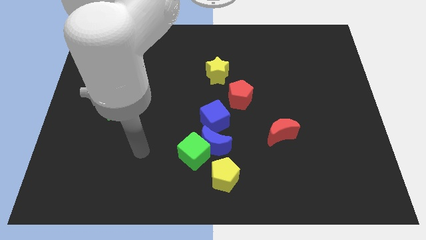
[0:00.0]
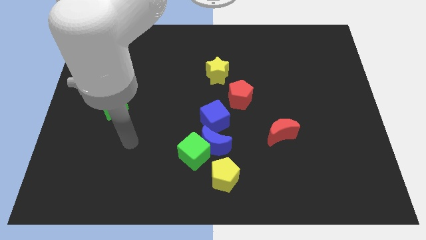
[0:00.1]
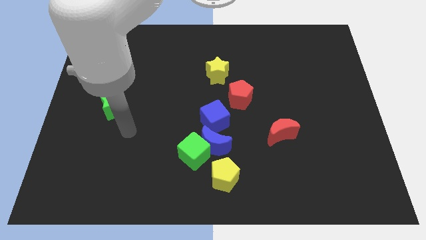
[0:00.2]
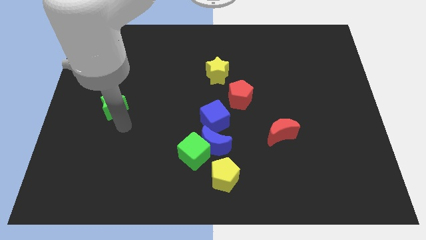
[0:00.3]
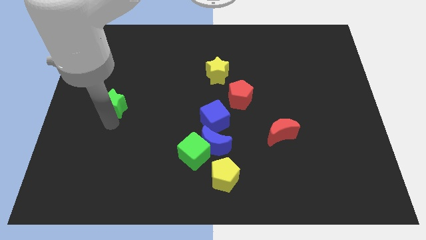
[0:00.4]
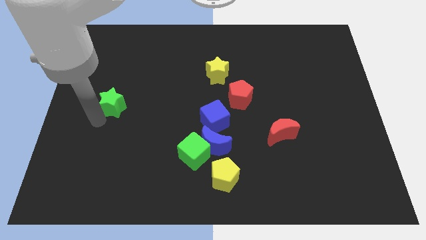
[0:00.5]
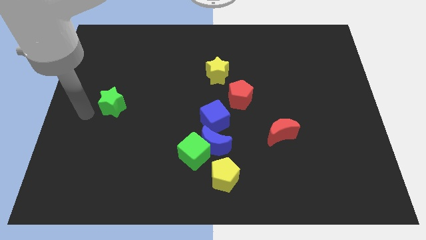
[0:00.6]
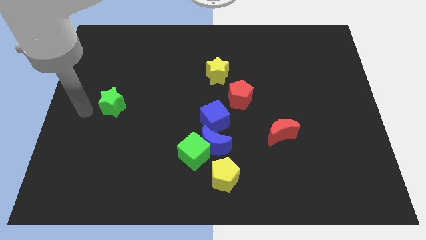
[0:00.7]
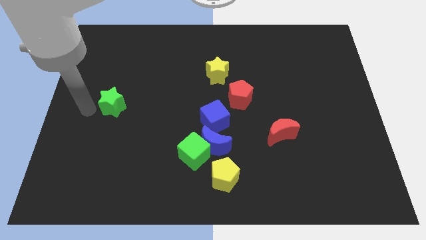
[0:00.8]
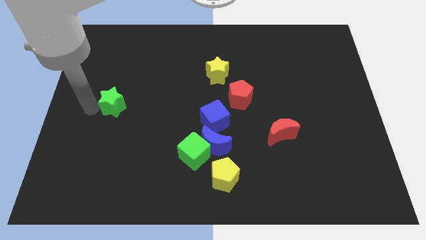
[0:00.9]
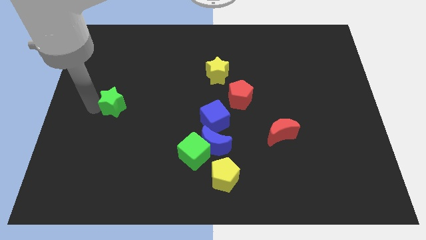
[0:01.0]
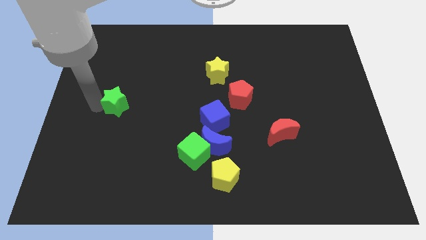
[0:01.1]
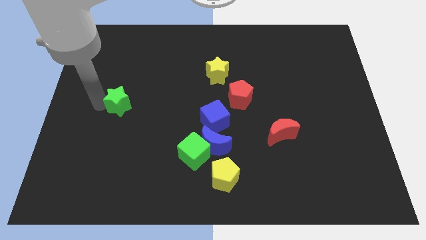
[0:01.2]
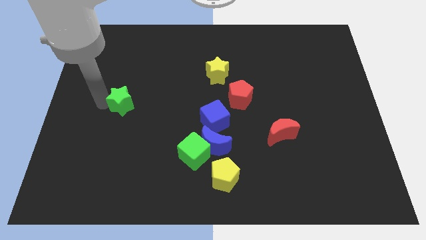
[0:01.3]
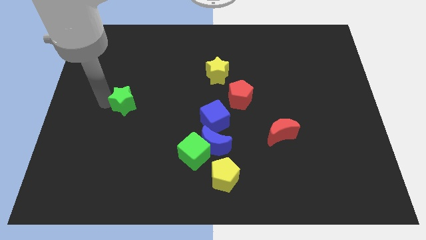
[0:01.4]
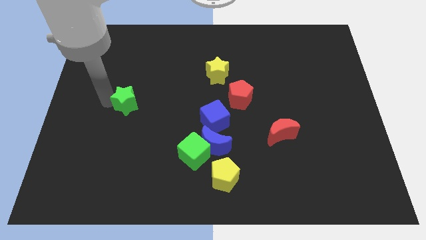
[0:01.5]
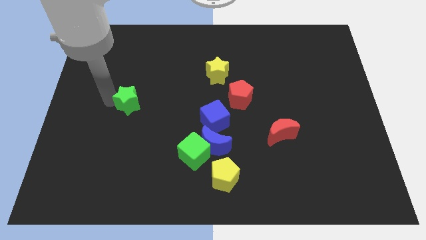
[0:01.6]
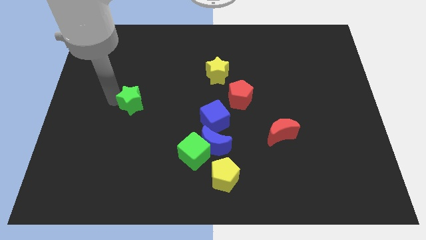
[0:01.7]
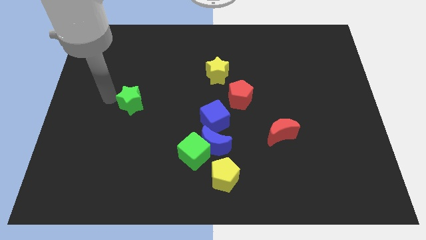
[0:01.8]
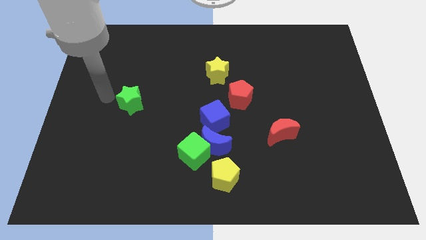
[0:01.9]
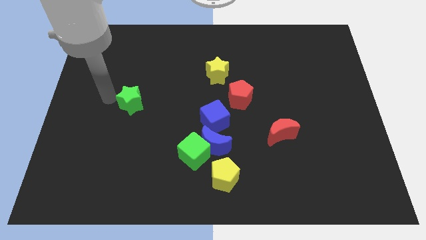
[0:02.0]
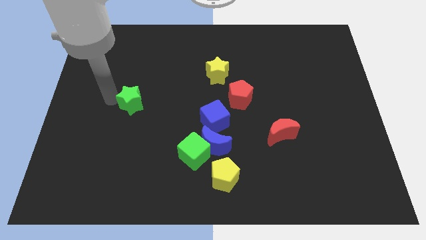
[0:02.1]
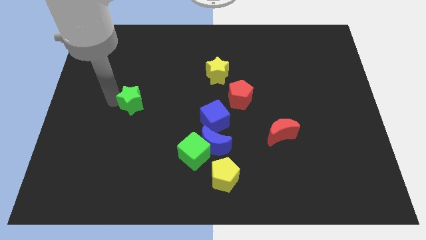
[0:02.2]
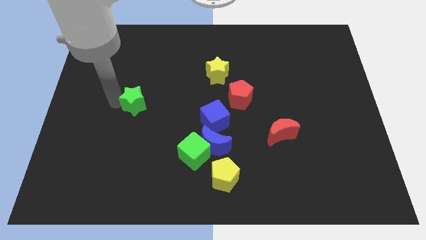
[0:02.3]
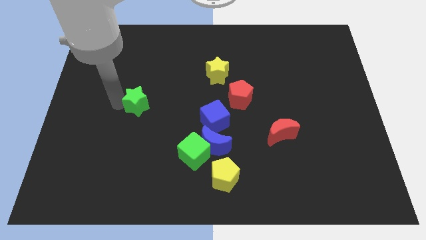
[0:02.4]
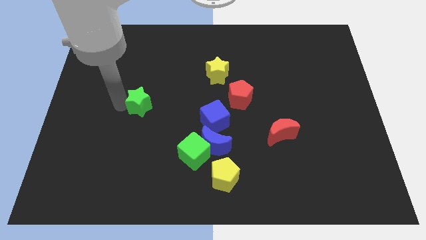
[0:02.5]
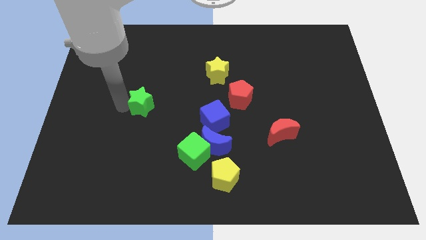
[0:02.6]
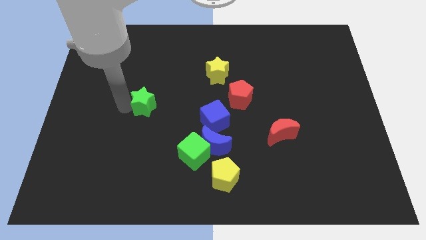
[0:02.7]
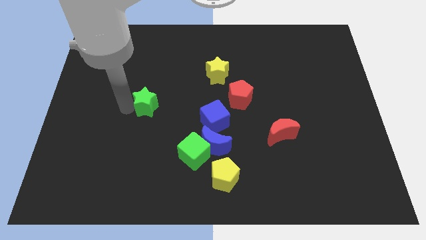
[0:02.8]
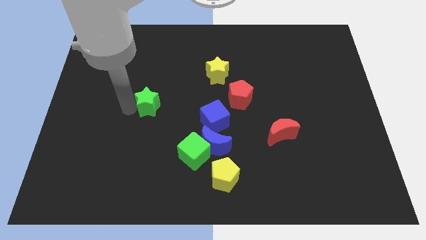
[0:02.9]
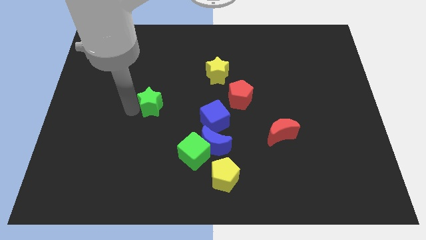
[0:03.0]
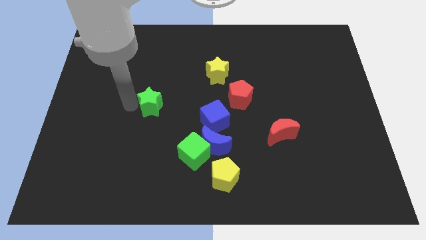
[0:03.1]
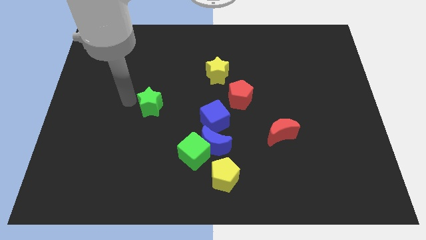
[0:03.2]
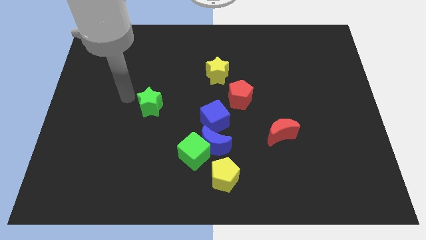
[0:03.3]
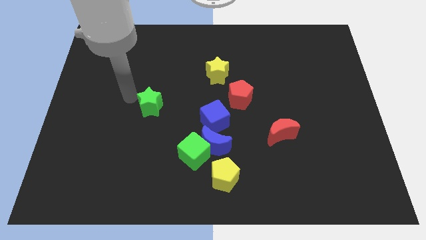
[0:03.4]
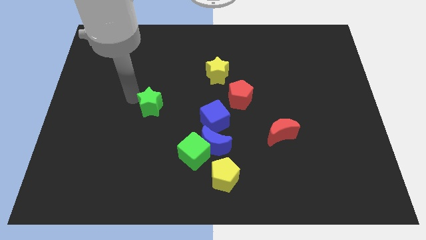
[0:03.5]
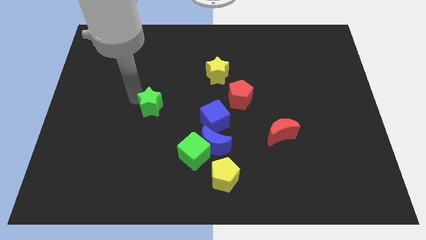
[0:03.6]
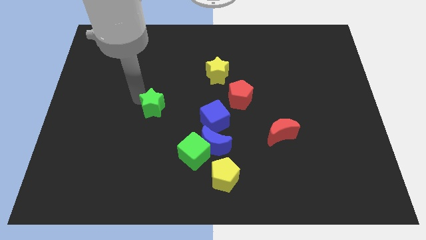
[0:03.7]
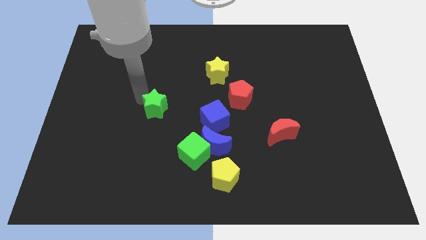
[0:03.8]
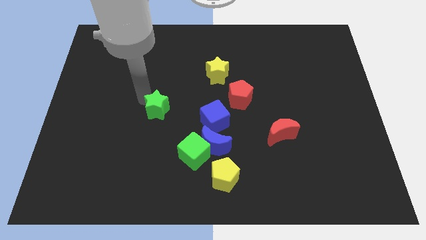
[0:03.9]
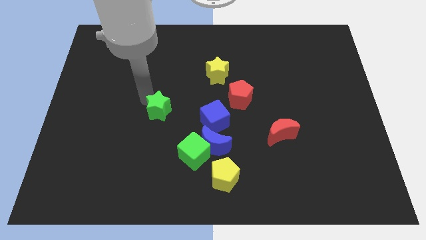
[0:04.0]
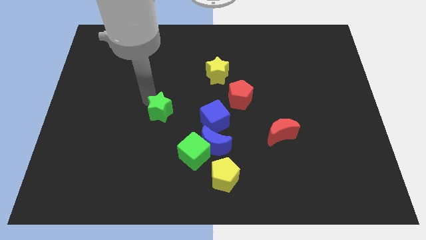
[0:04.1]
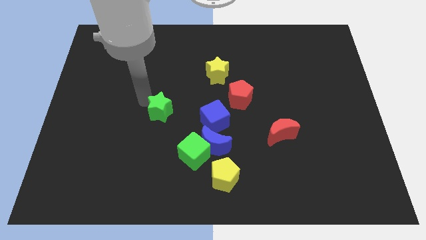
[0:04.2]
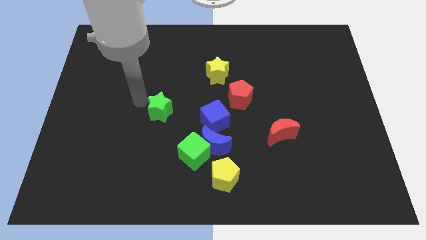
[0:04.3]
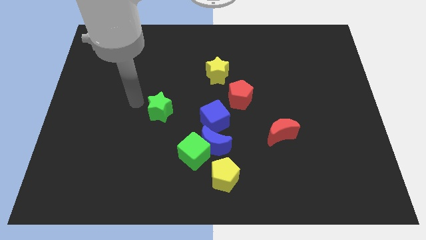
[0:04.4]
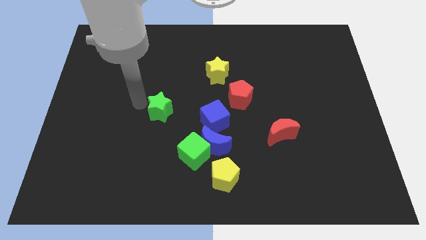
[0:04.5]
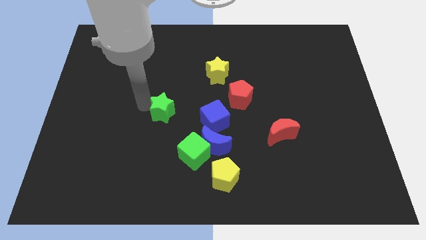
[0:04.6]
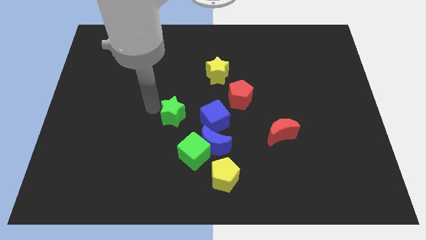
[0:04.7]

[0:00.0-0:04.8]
move the green star to the top left side of the blue moon

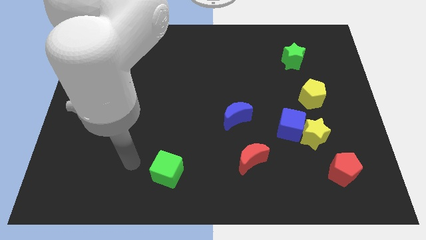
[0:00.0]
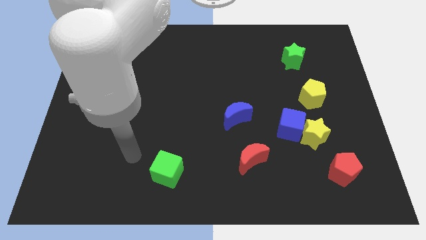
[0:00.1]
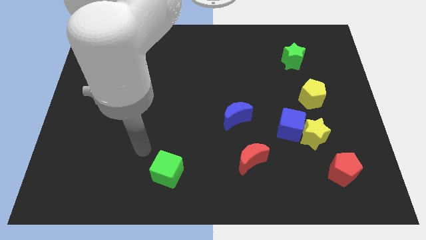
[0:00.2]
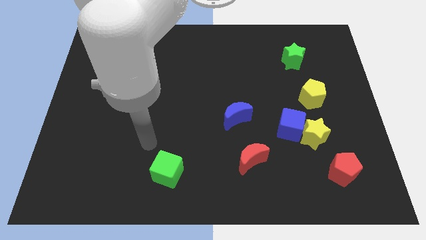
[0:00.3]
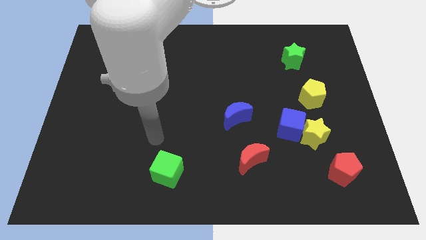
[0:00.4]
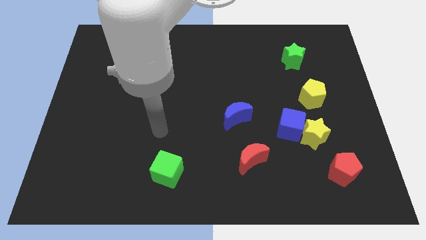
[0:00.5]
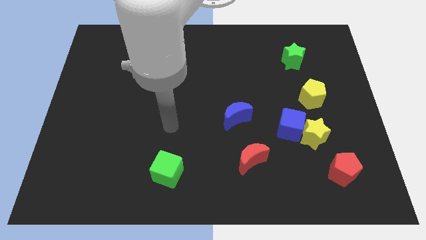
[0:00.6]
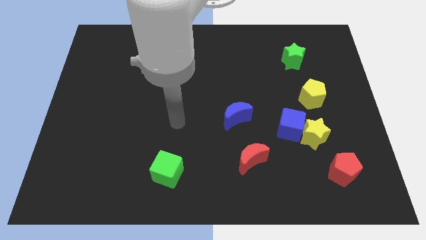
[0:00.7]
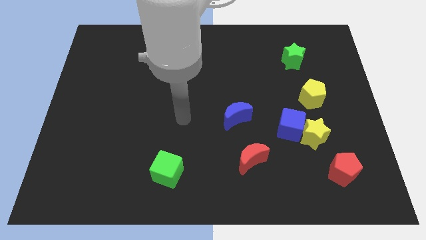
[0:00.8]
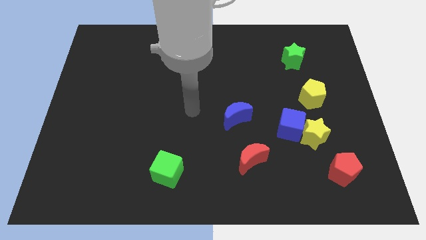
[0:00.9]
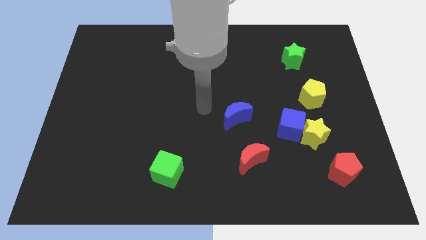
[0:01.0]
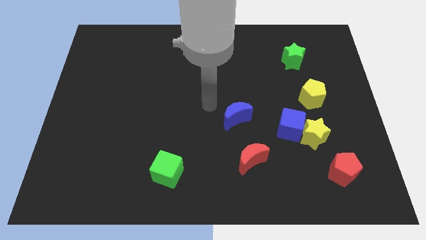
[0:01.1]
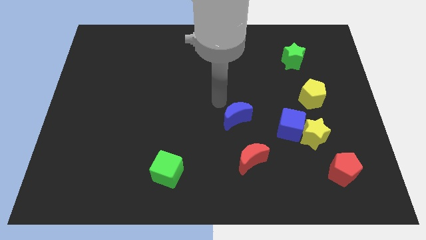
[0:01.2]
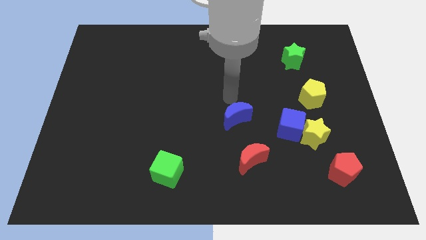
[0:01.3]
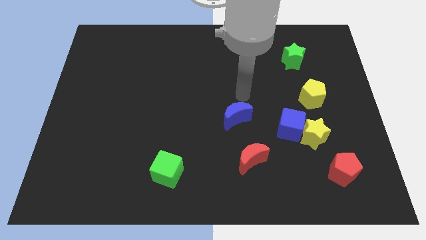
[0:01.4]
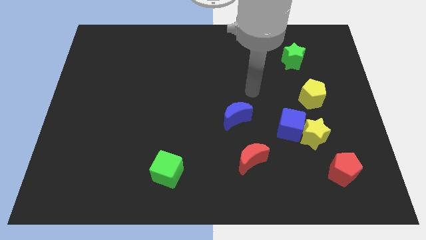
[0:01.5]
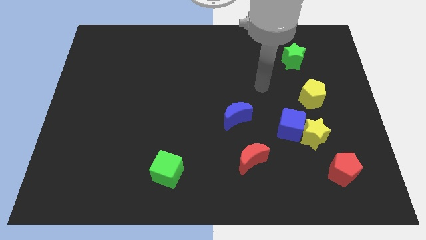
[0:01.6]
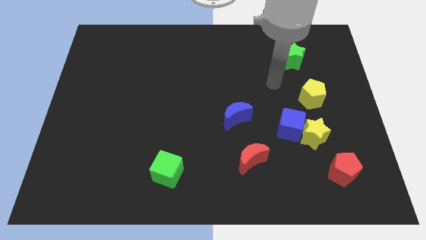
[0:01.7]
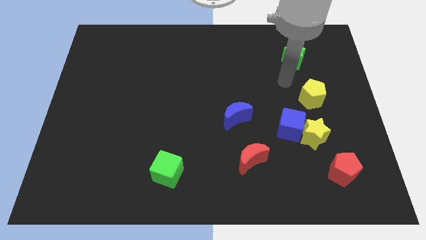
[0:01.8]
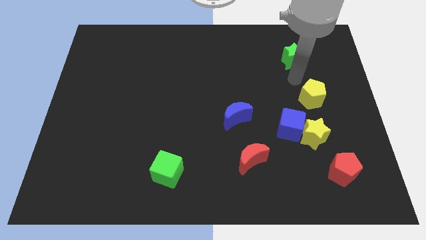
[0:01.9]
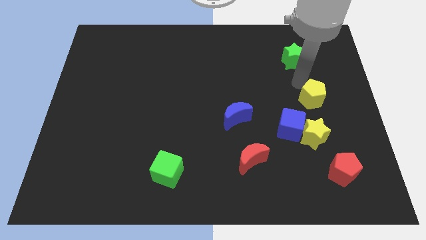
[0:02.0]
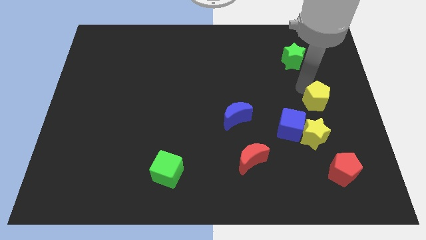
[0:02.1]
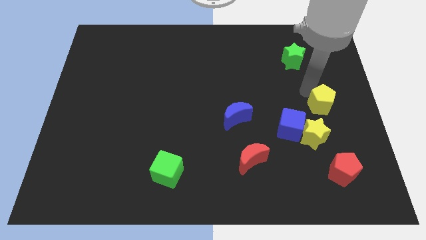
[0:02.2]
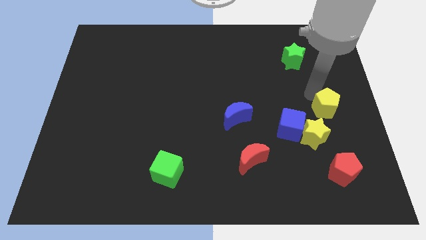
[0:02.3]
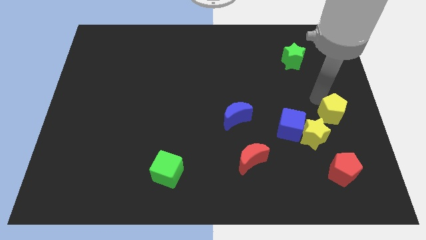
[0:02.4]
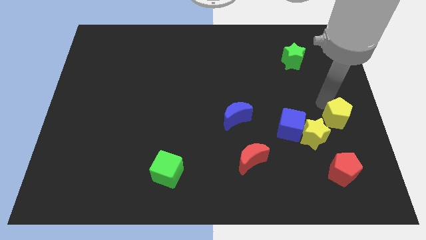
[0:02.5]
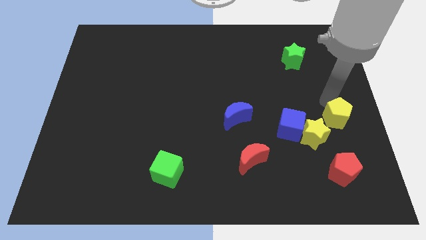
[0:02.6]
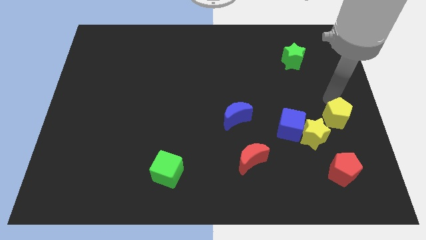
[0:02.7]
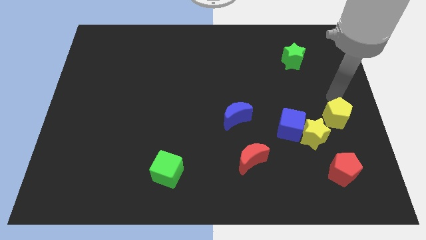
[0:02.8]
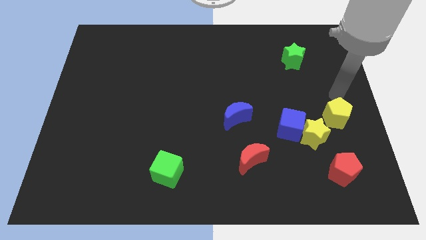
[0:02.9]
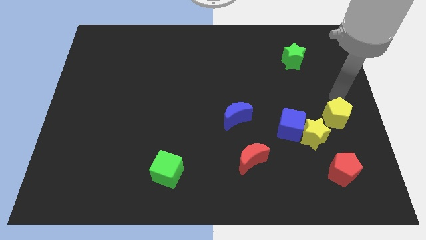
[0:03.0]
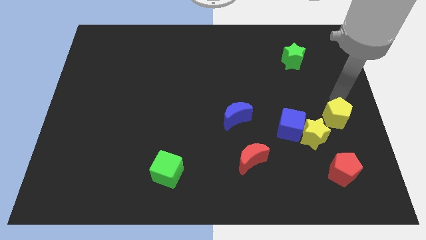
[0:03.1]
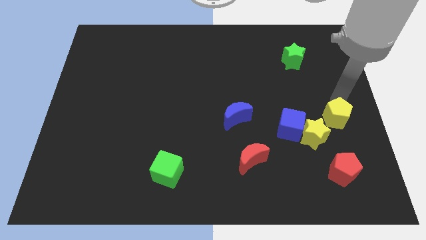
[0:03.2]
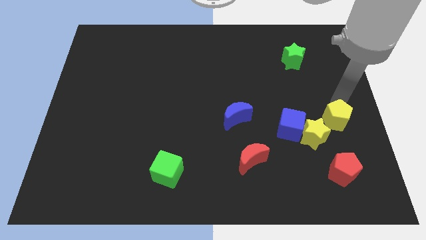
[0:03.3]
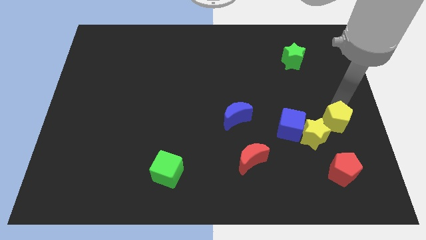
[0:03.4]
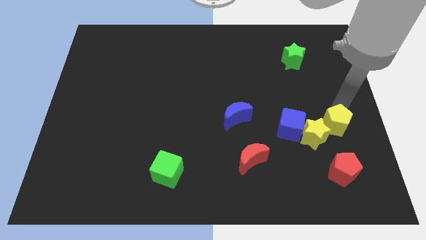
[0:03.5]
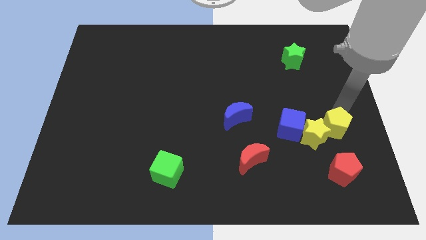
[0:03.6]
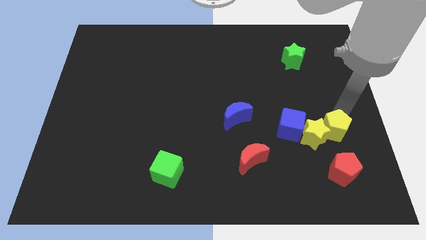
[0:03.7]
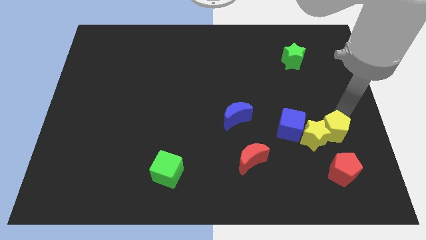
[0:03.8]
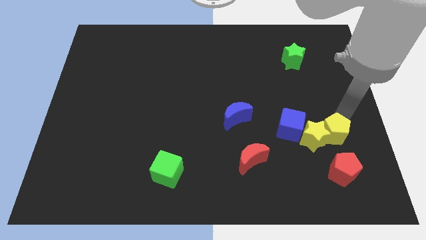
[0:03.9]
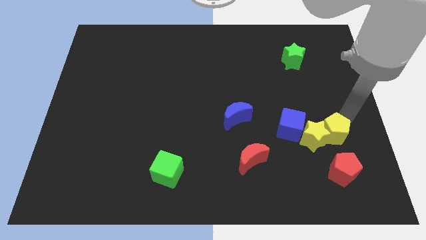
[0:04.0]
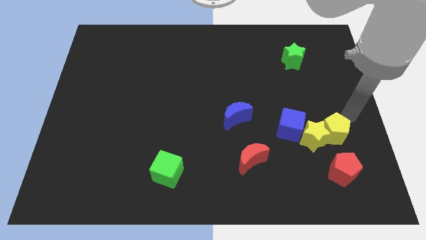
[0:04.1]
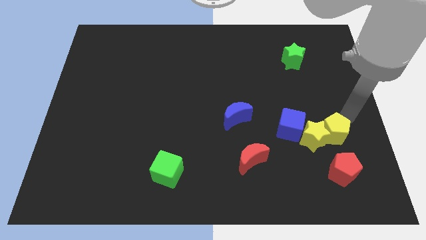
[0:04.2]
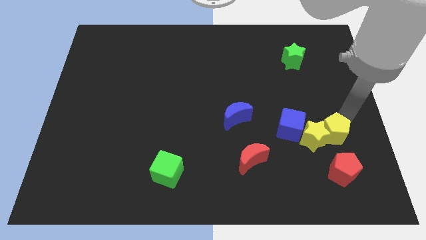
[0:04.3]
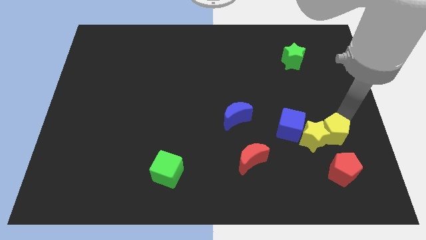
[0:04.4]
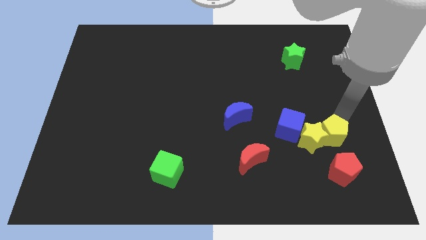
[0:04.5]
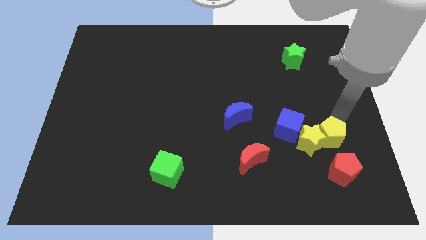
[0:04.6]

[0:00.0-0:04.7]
put the yellow pentagon to the bottom right side of the blue cube
